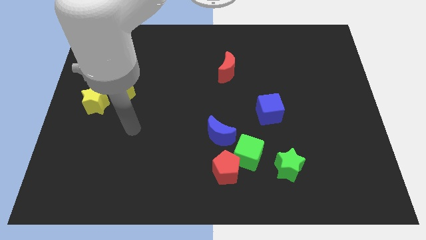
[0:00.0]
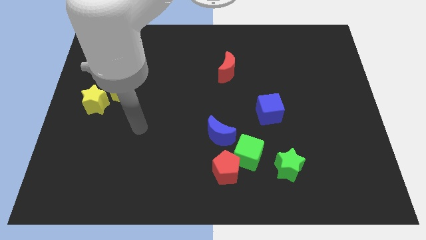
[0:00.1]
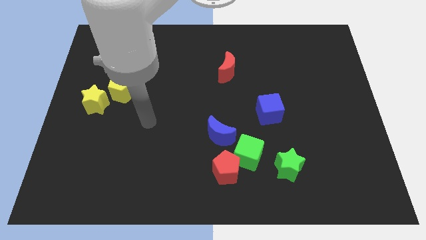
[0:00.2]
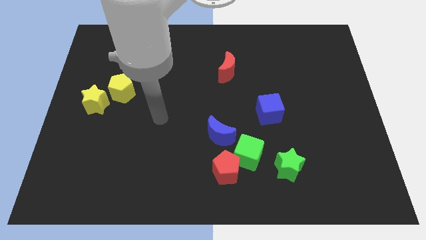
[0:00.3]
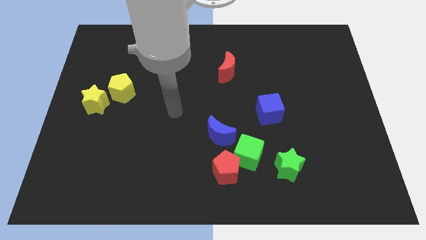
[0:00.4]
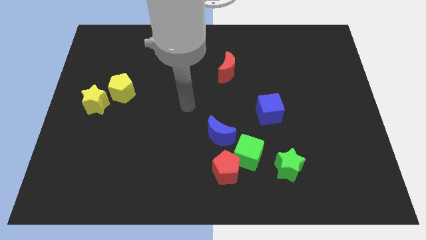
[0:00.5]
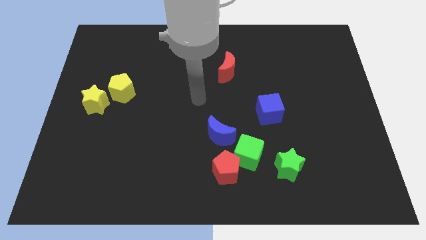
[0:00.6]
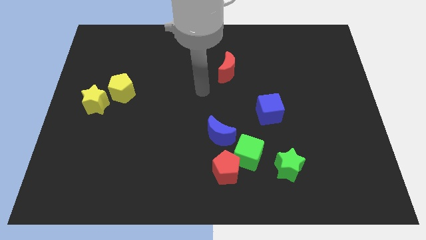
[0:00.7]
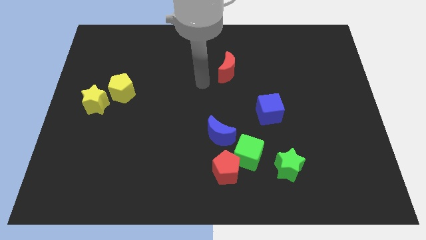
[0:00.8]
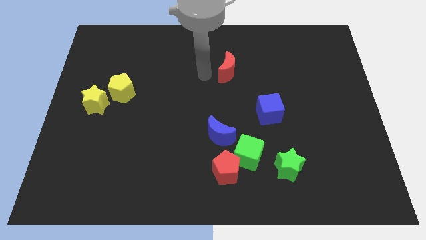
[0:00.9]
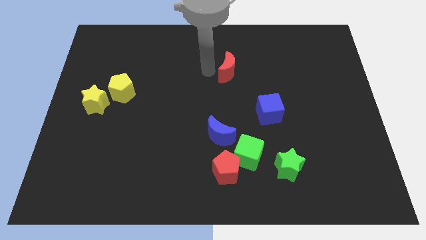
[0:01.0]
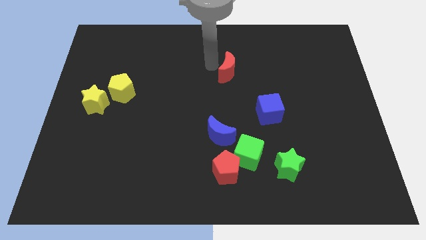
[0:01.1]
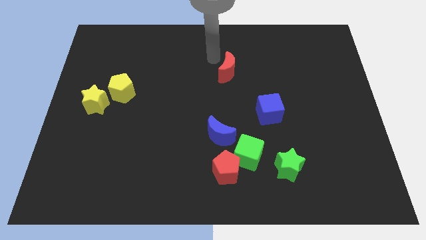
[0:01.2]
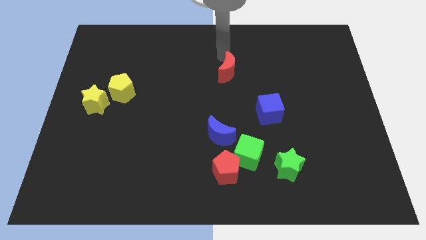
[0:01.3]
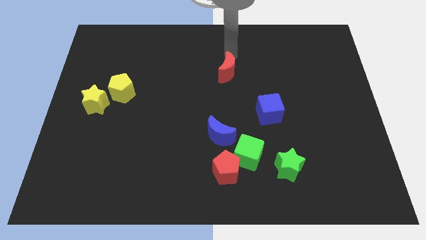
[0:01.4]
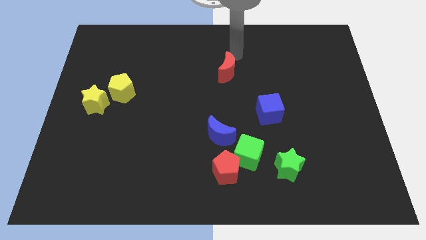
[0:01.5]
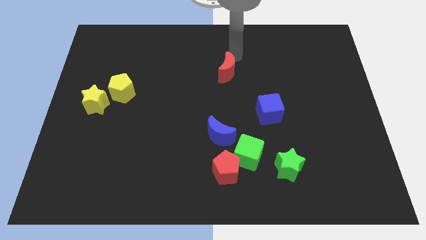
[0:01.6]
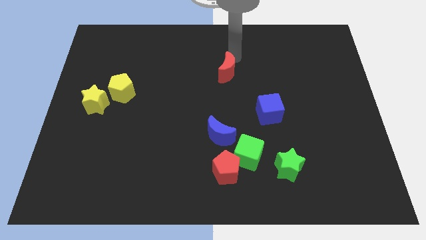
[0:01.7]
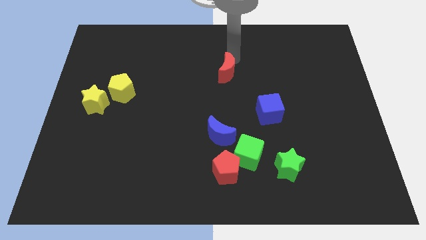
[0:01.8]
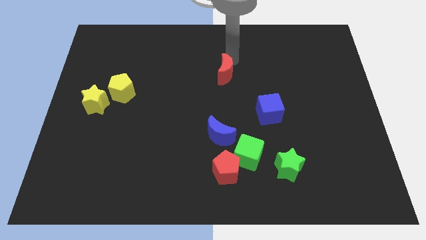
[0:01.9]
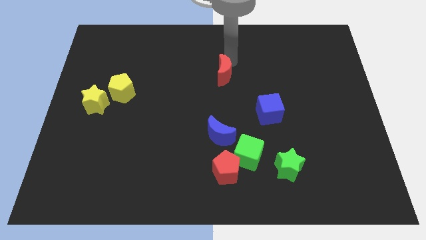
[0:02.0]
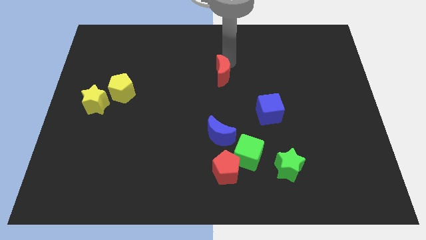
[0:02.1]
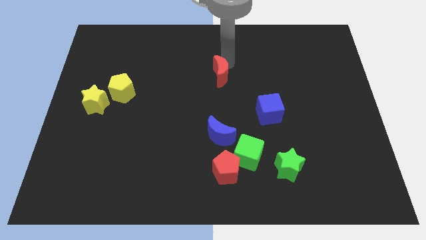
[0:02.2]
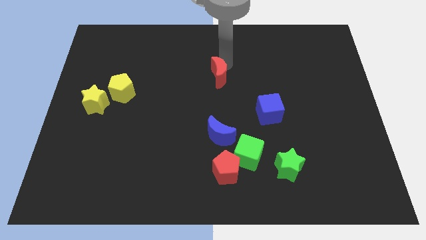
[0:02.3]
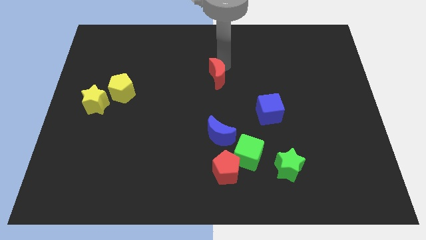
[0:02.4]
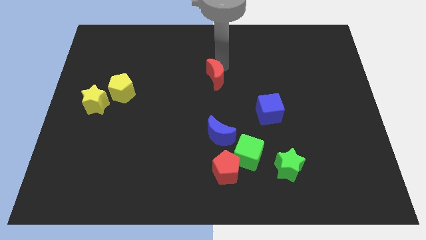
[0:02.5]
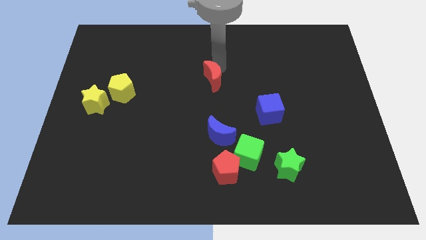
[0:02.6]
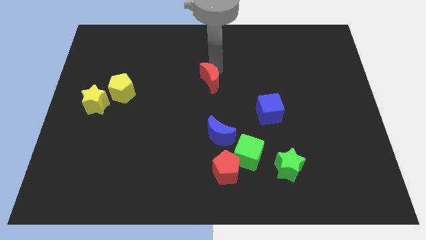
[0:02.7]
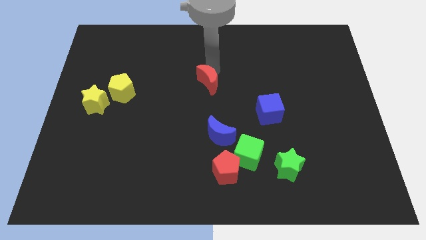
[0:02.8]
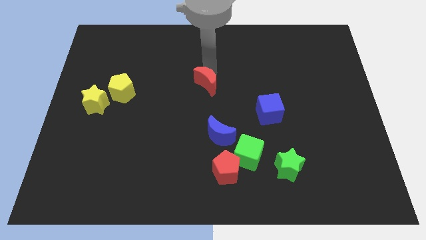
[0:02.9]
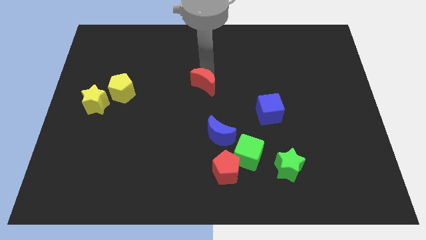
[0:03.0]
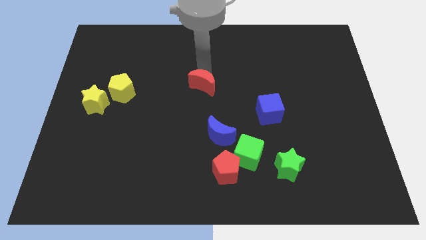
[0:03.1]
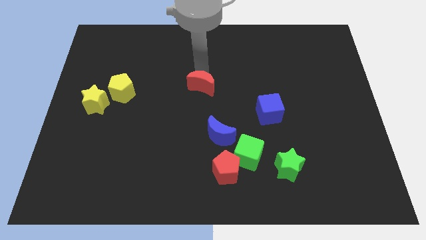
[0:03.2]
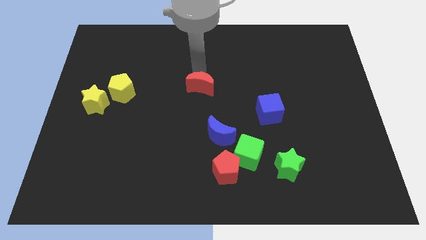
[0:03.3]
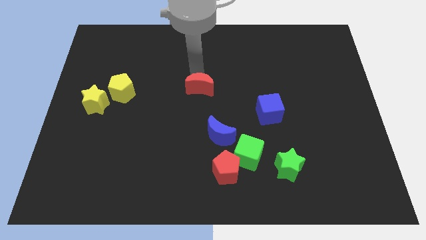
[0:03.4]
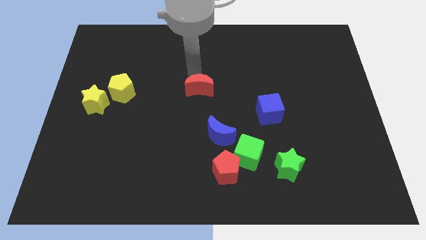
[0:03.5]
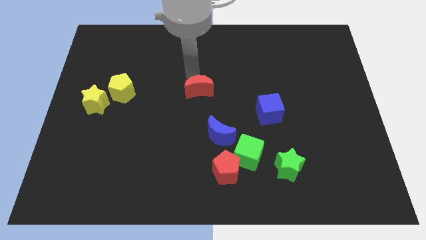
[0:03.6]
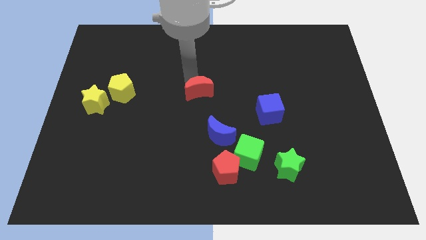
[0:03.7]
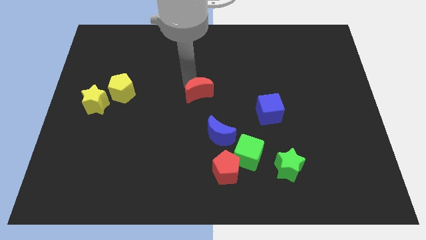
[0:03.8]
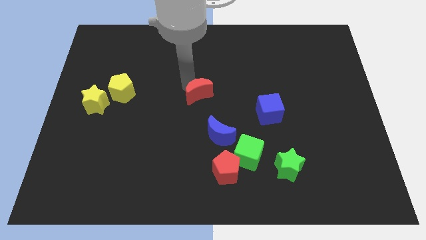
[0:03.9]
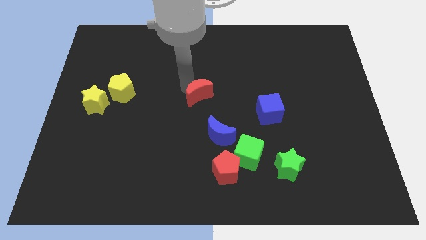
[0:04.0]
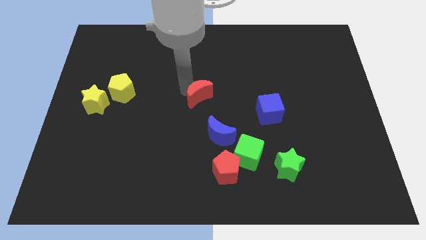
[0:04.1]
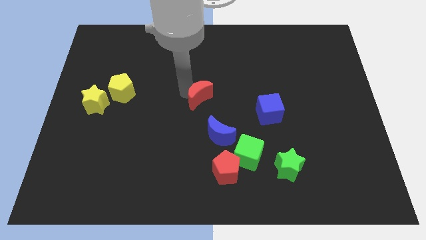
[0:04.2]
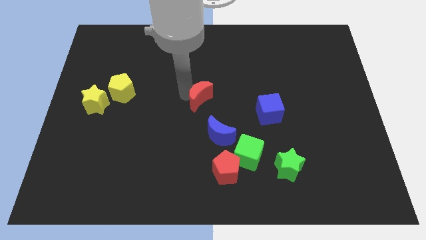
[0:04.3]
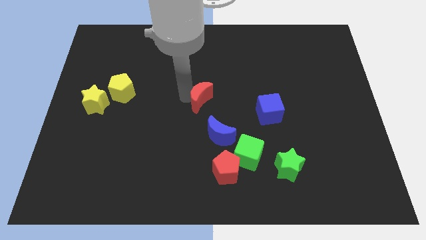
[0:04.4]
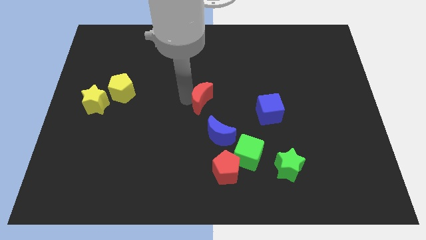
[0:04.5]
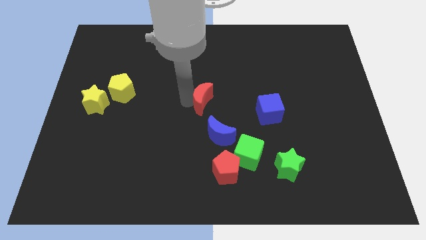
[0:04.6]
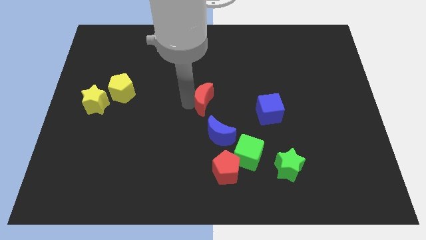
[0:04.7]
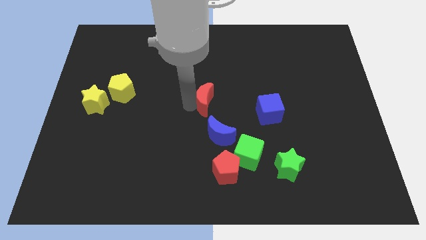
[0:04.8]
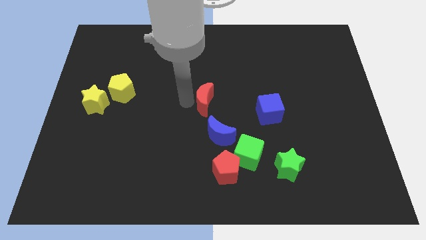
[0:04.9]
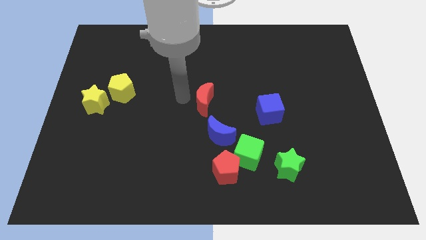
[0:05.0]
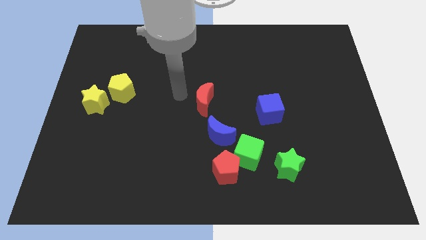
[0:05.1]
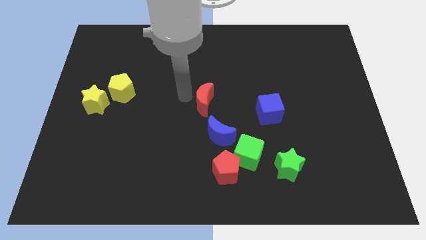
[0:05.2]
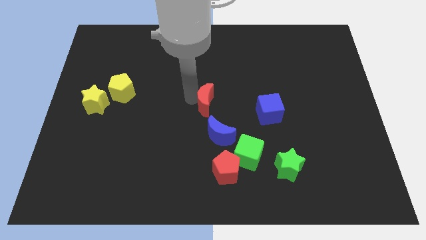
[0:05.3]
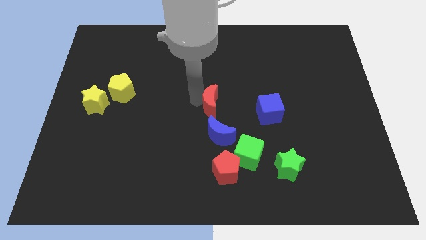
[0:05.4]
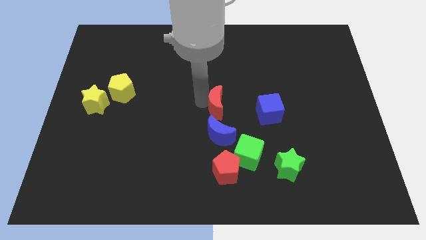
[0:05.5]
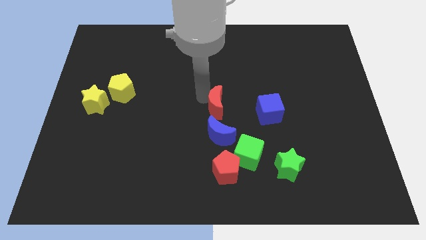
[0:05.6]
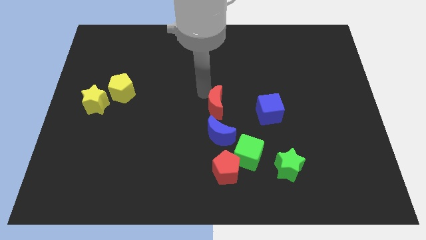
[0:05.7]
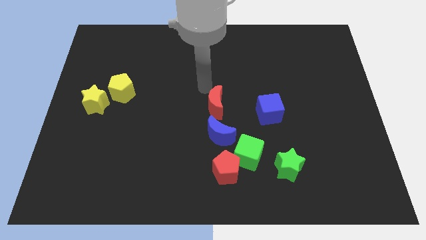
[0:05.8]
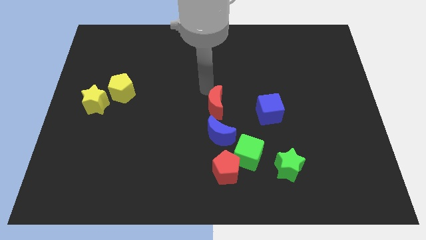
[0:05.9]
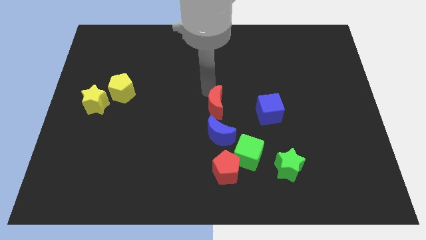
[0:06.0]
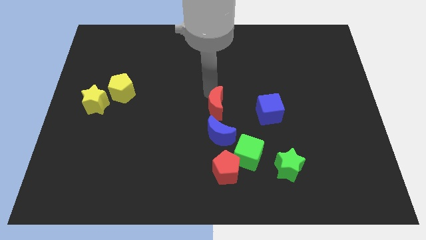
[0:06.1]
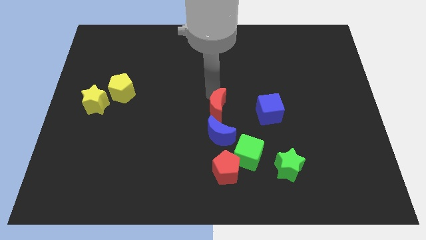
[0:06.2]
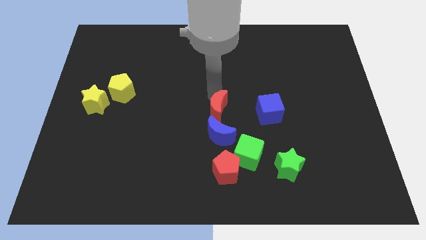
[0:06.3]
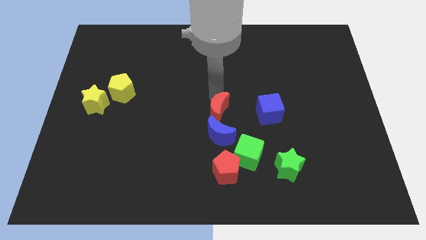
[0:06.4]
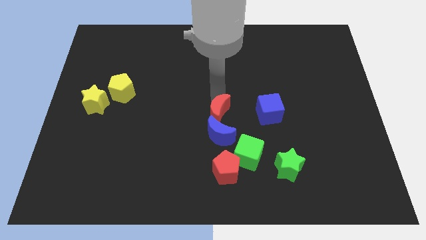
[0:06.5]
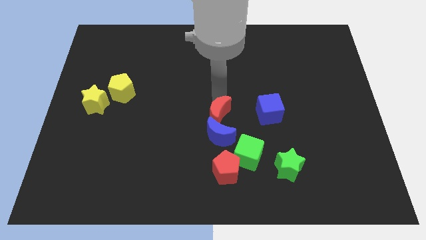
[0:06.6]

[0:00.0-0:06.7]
slide the red moon towards the blue moon

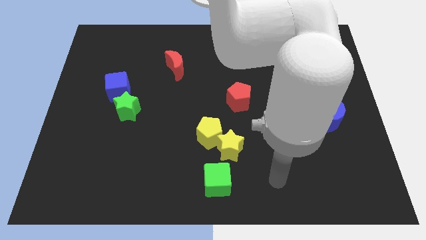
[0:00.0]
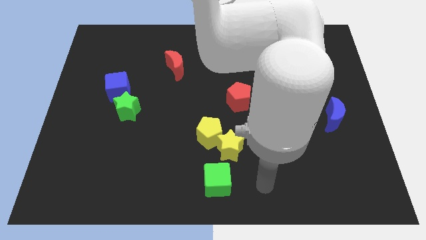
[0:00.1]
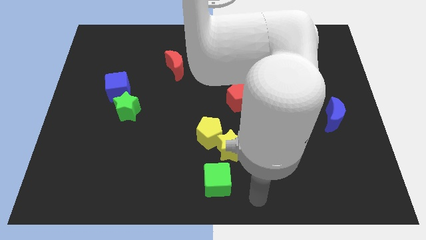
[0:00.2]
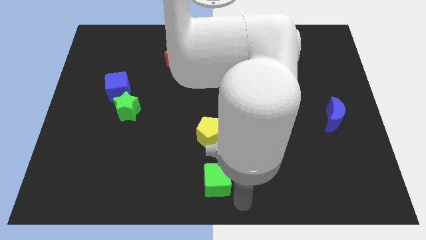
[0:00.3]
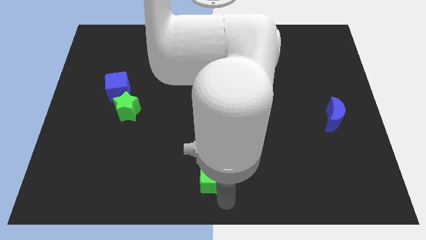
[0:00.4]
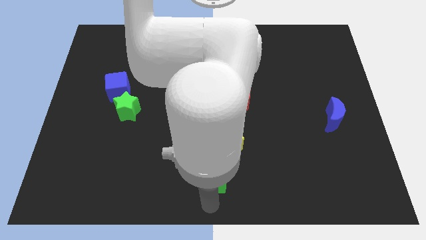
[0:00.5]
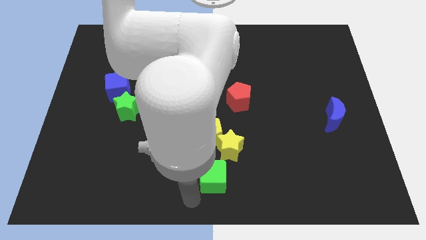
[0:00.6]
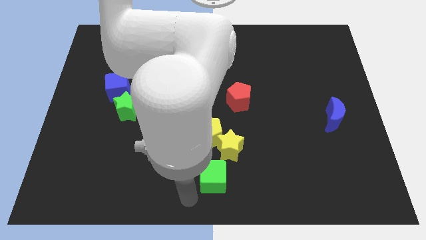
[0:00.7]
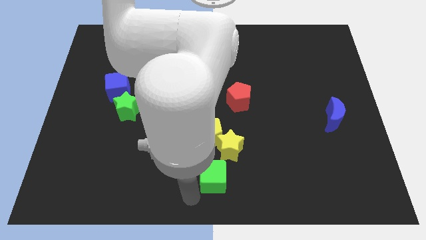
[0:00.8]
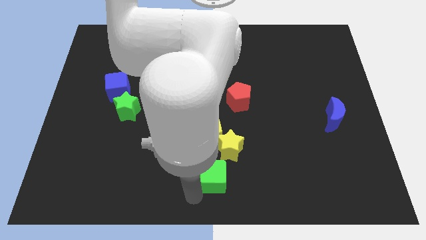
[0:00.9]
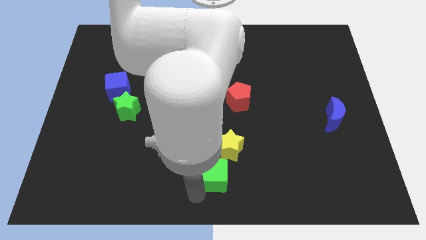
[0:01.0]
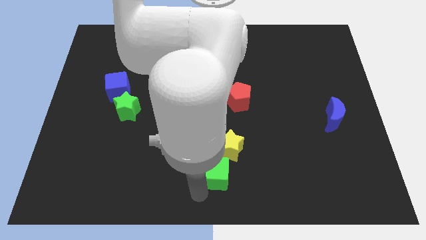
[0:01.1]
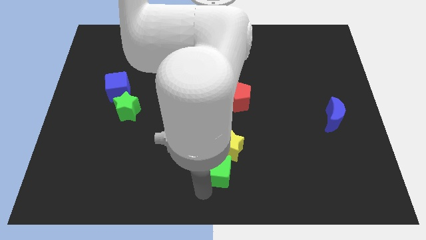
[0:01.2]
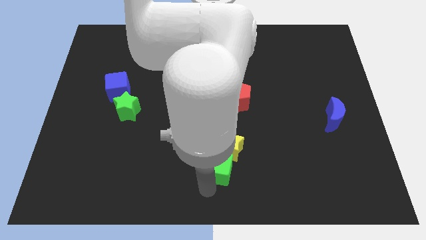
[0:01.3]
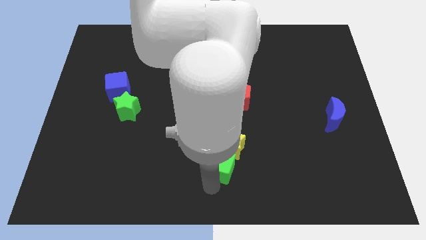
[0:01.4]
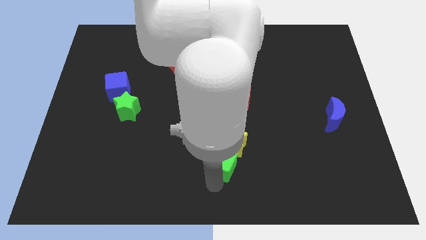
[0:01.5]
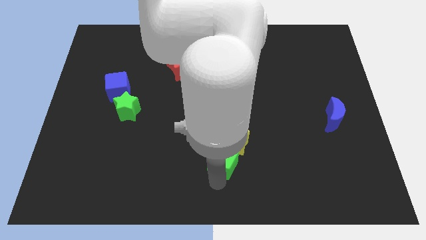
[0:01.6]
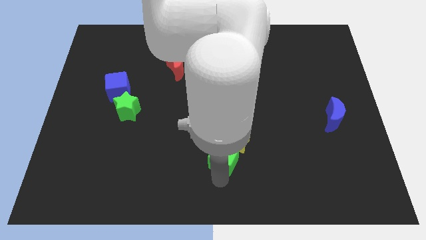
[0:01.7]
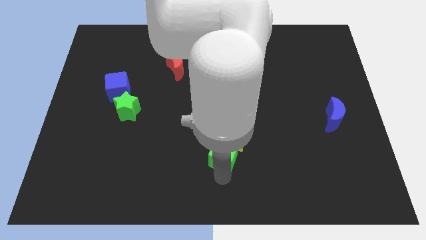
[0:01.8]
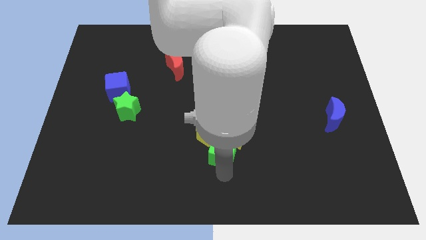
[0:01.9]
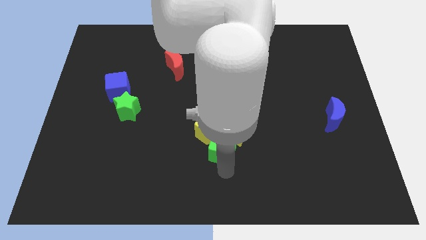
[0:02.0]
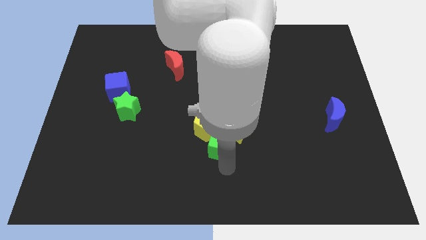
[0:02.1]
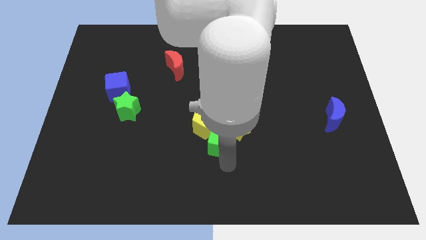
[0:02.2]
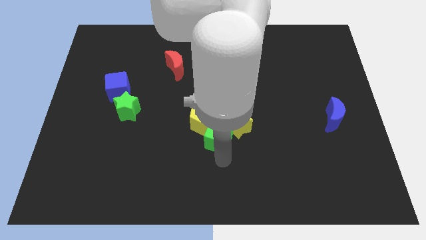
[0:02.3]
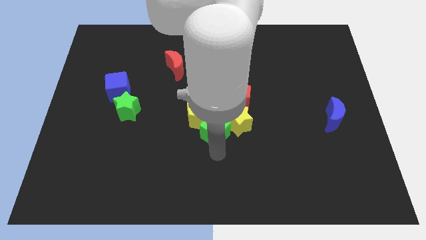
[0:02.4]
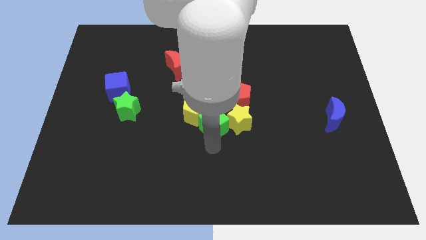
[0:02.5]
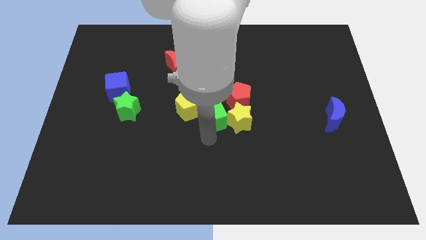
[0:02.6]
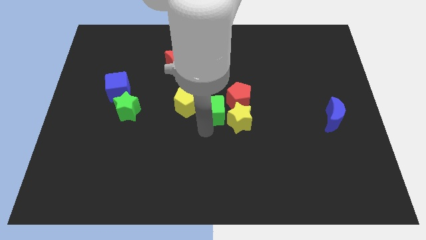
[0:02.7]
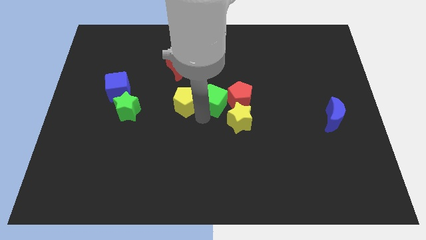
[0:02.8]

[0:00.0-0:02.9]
slide the green cube towards the red pentagon
